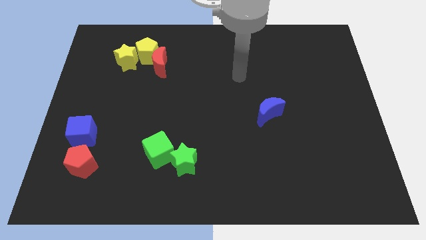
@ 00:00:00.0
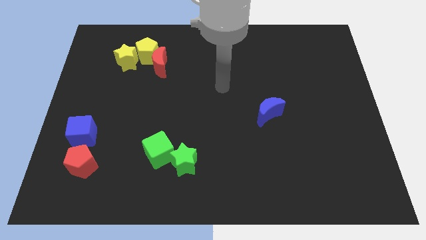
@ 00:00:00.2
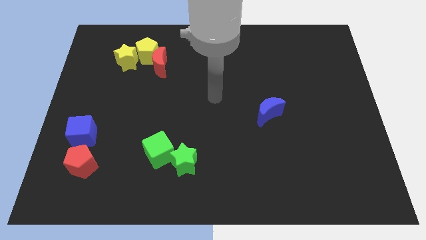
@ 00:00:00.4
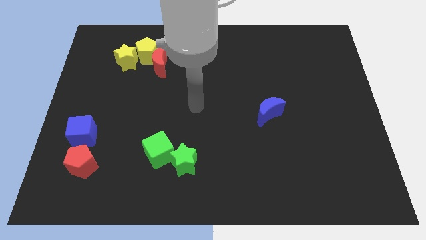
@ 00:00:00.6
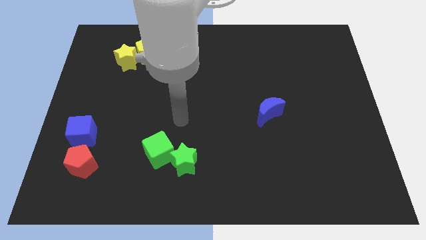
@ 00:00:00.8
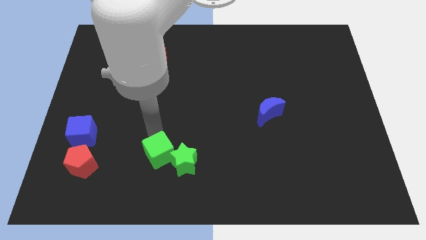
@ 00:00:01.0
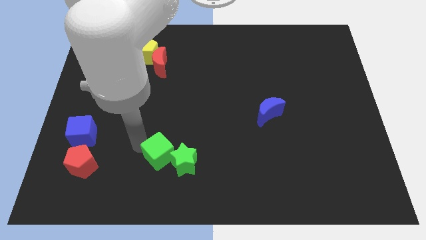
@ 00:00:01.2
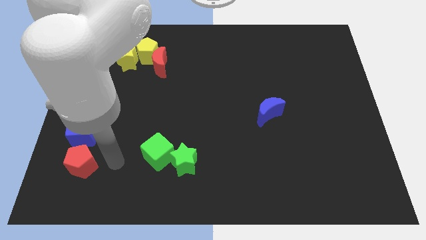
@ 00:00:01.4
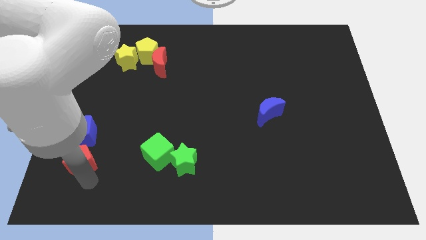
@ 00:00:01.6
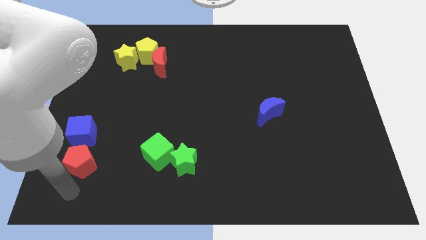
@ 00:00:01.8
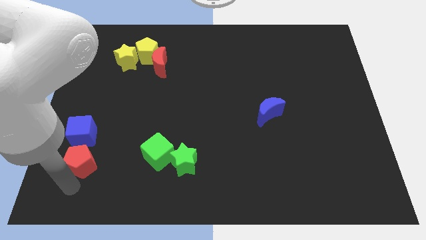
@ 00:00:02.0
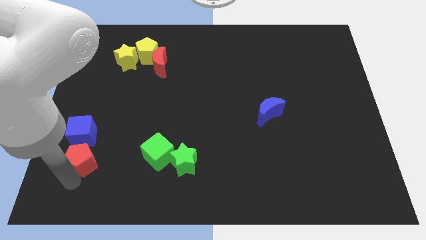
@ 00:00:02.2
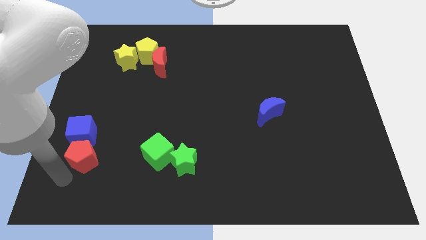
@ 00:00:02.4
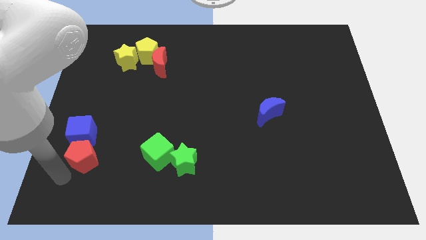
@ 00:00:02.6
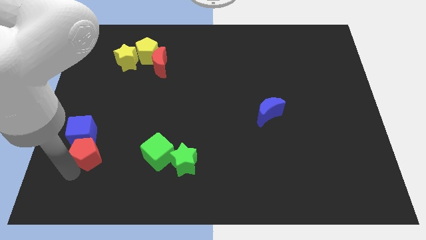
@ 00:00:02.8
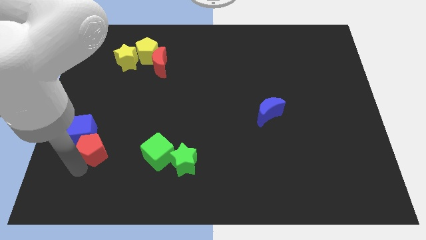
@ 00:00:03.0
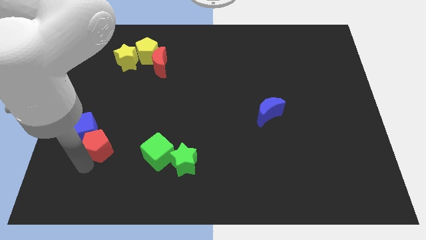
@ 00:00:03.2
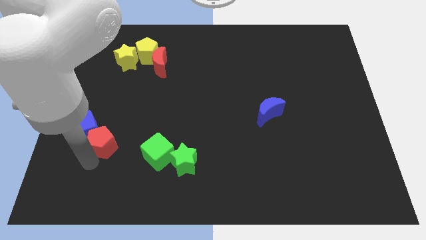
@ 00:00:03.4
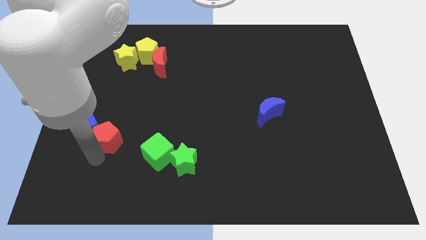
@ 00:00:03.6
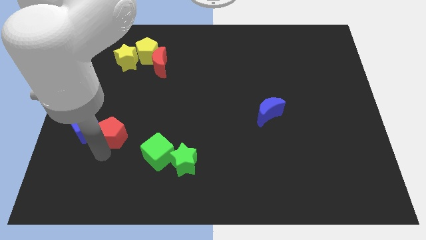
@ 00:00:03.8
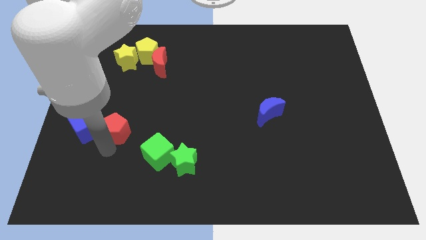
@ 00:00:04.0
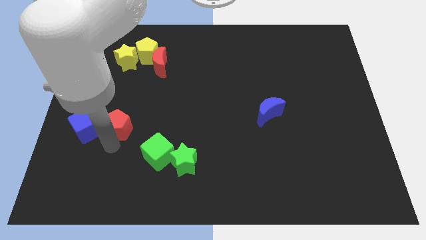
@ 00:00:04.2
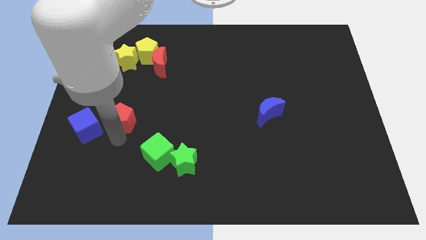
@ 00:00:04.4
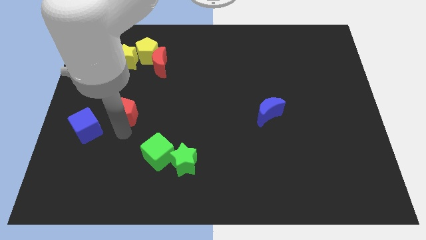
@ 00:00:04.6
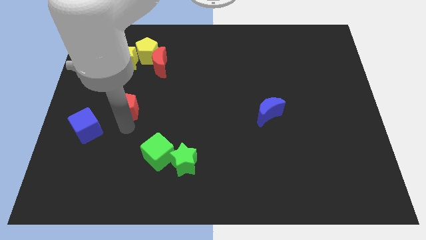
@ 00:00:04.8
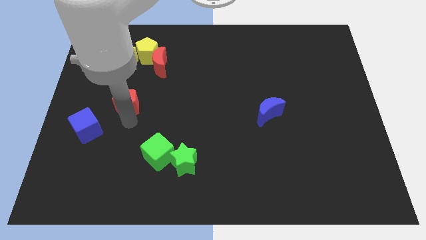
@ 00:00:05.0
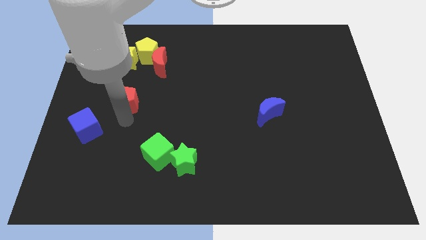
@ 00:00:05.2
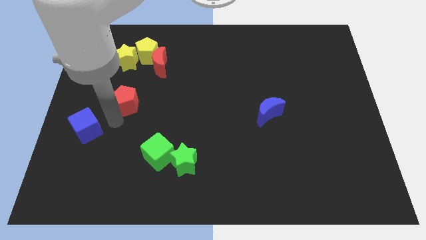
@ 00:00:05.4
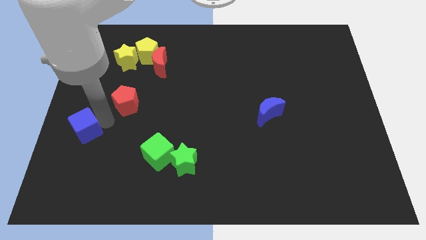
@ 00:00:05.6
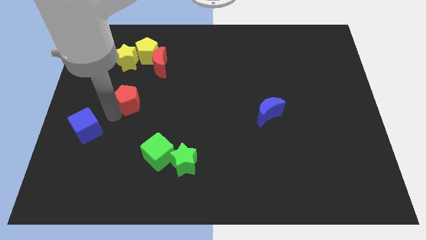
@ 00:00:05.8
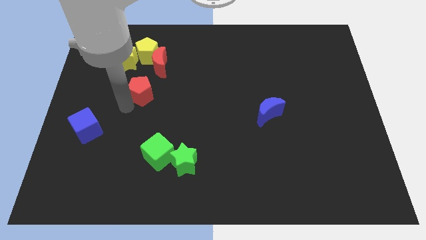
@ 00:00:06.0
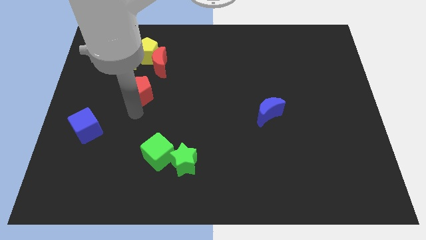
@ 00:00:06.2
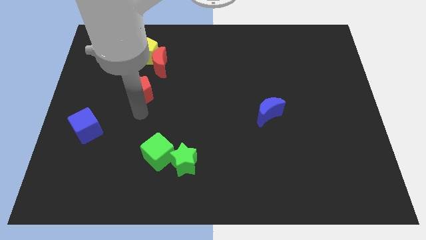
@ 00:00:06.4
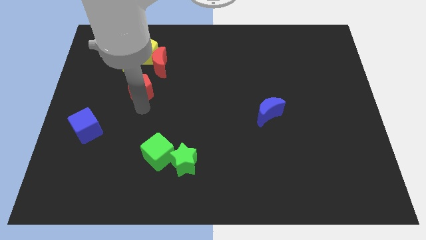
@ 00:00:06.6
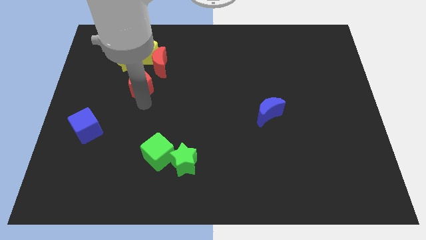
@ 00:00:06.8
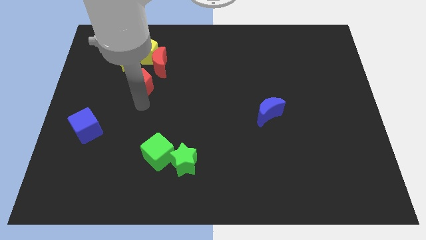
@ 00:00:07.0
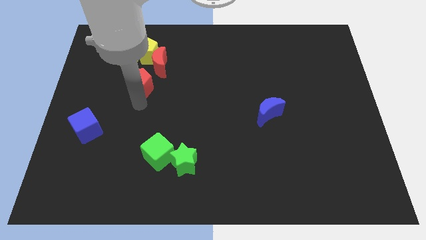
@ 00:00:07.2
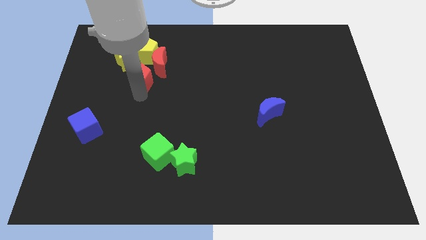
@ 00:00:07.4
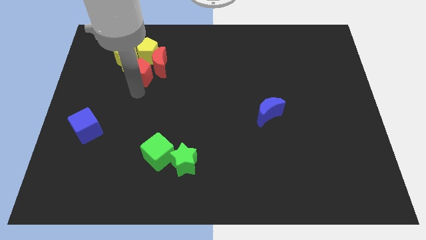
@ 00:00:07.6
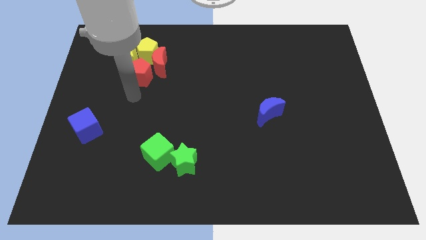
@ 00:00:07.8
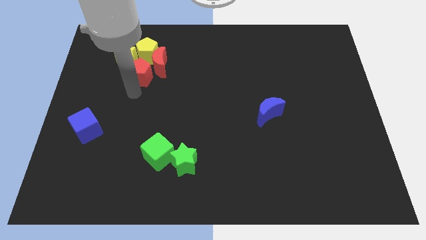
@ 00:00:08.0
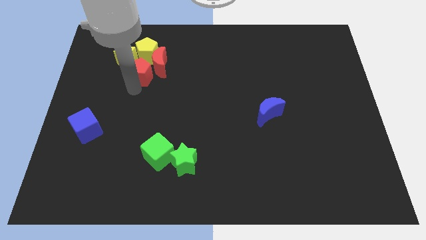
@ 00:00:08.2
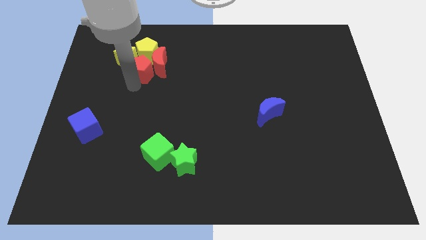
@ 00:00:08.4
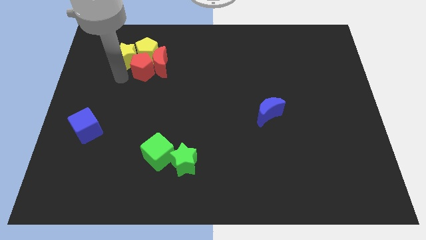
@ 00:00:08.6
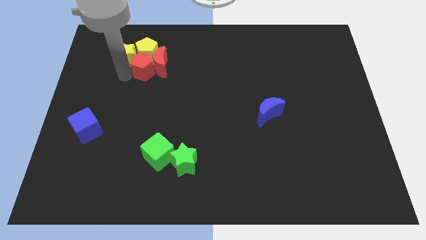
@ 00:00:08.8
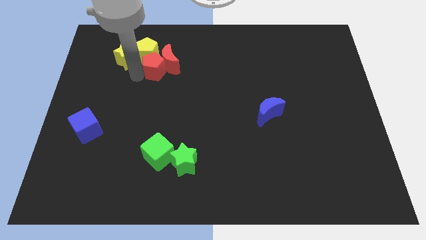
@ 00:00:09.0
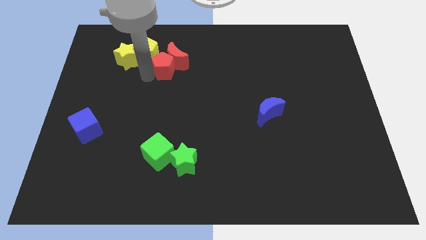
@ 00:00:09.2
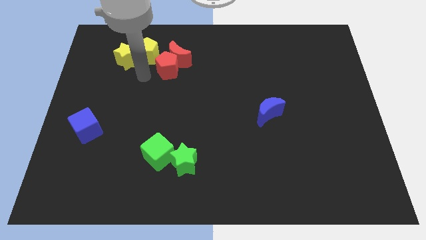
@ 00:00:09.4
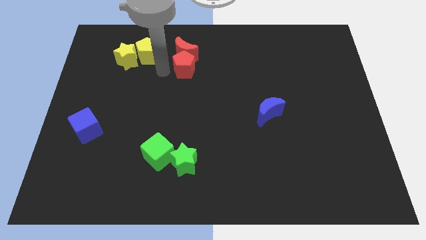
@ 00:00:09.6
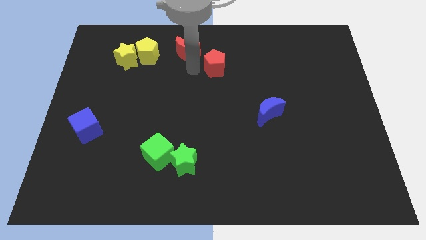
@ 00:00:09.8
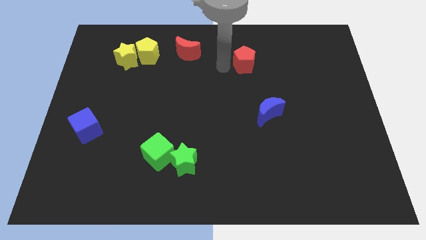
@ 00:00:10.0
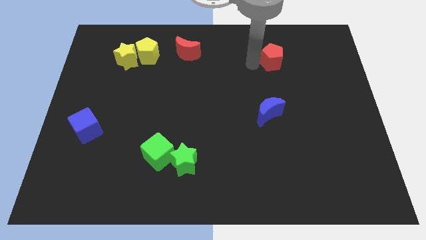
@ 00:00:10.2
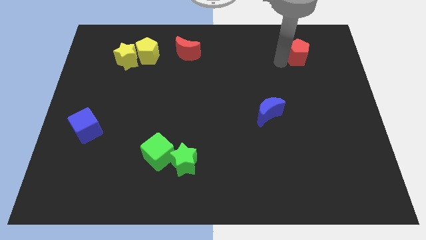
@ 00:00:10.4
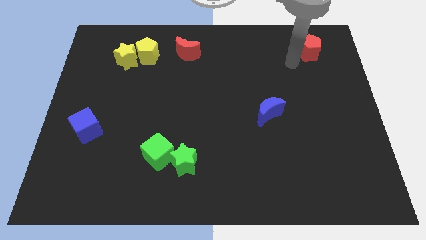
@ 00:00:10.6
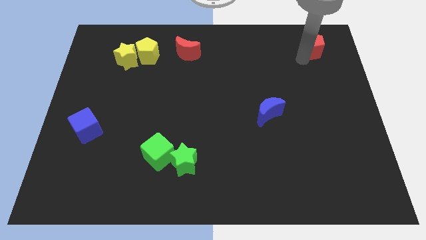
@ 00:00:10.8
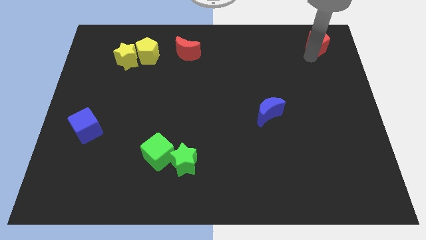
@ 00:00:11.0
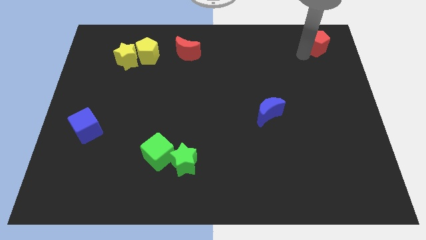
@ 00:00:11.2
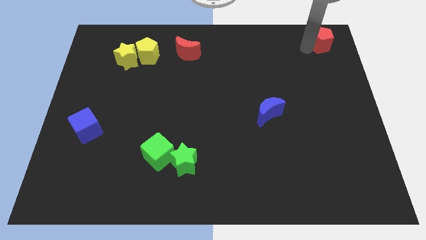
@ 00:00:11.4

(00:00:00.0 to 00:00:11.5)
push the red pentagon to the top right of the board

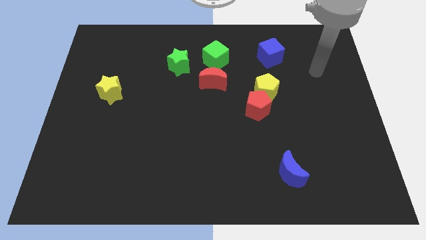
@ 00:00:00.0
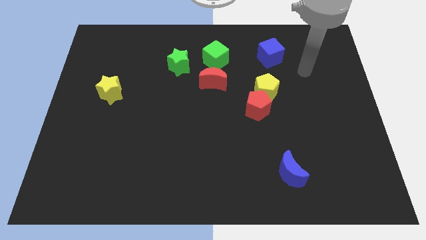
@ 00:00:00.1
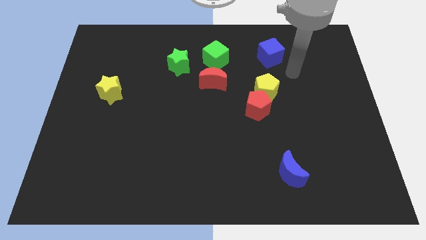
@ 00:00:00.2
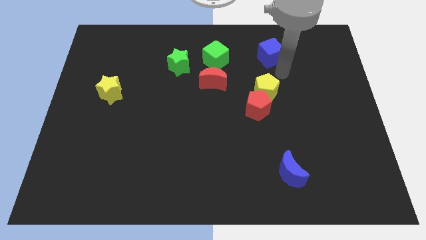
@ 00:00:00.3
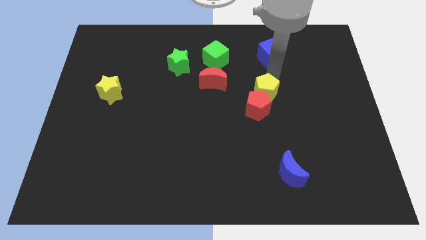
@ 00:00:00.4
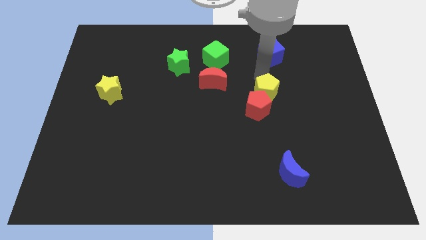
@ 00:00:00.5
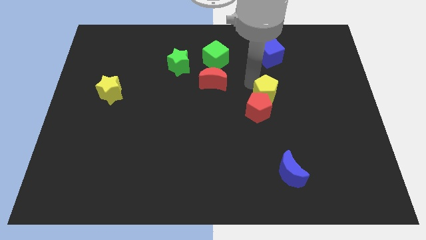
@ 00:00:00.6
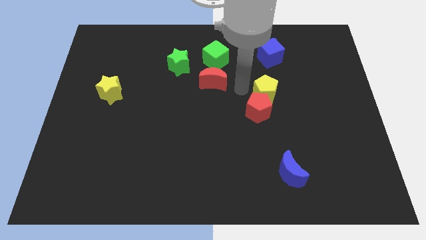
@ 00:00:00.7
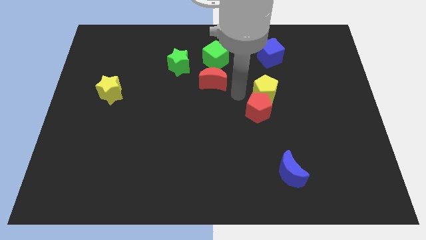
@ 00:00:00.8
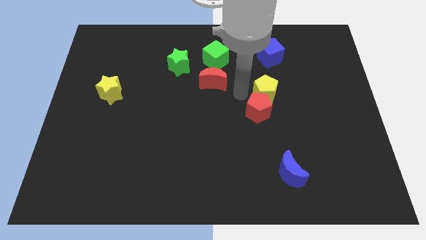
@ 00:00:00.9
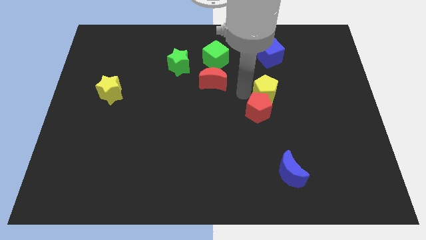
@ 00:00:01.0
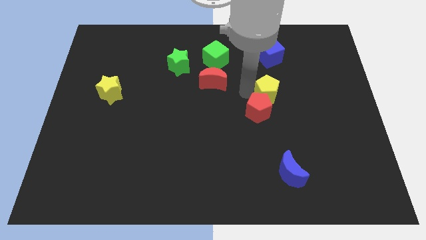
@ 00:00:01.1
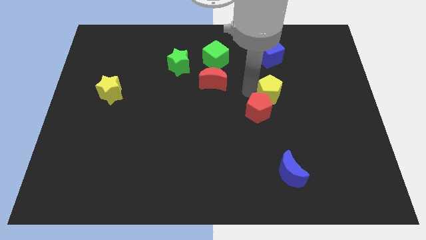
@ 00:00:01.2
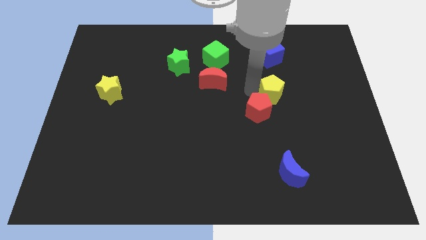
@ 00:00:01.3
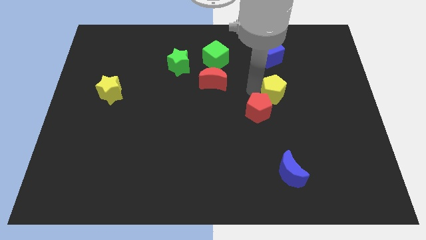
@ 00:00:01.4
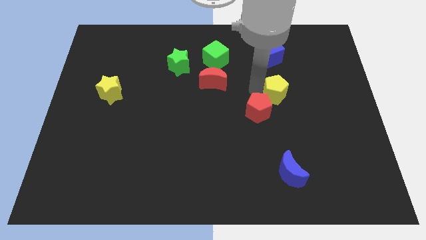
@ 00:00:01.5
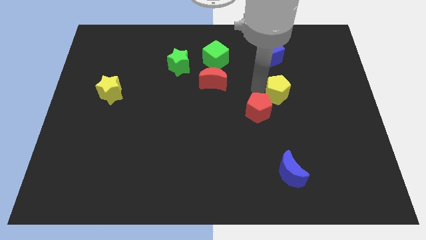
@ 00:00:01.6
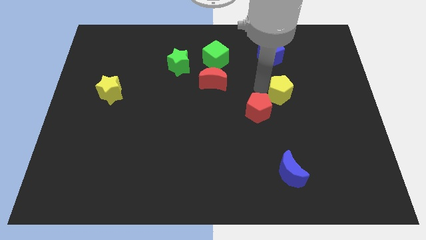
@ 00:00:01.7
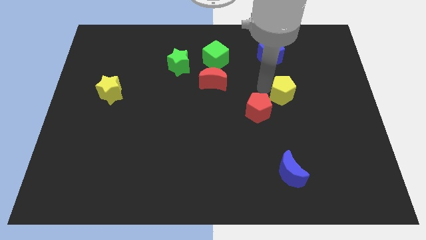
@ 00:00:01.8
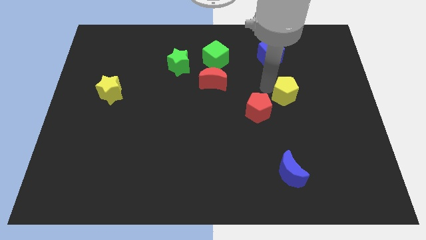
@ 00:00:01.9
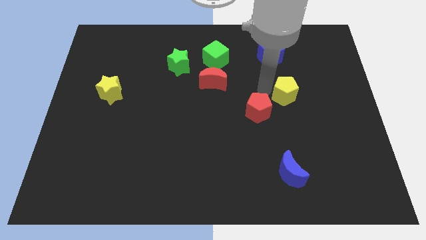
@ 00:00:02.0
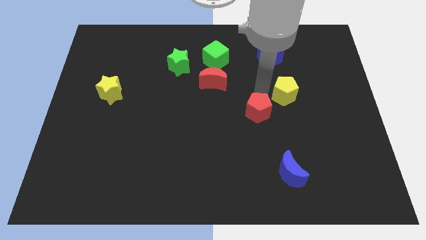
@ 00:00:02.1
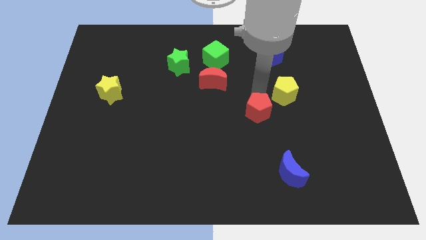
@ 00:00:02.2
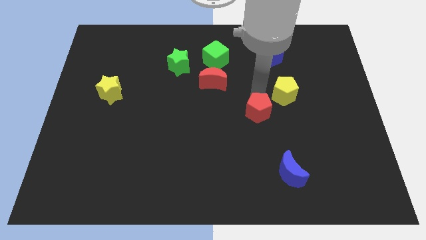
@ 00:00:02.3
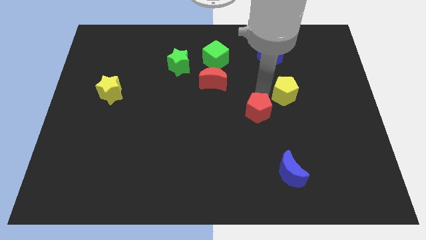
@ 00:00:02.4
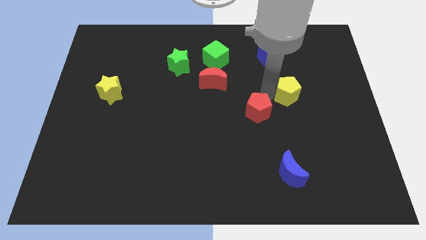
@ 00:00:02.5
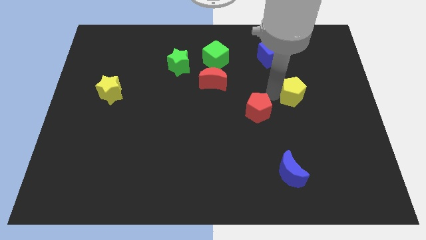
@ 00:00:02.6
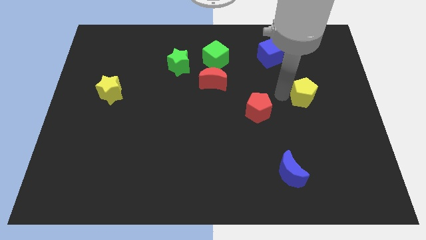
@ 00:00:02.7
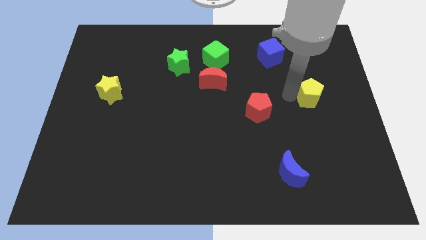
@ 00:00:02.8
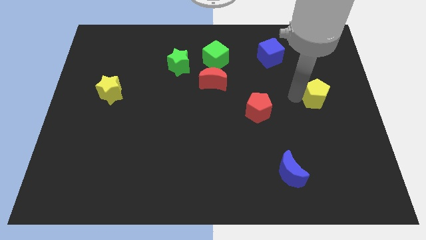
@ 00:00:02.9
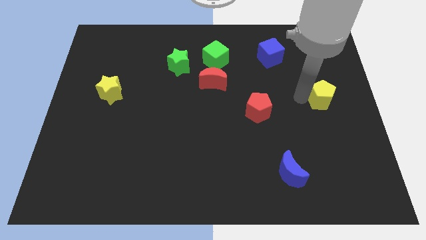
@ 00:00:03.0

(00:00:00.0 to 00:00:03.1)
slide the yellow pentagon to the center right
